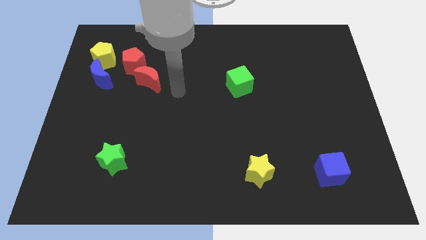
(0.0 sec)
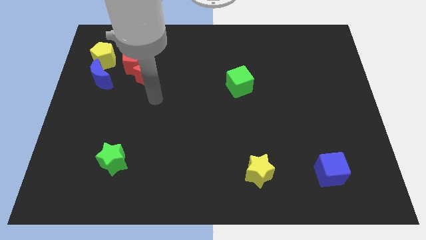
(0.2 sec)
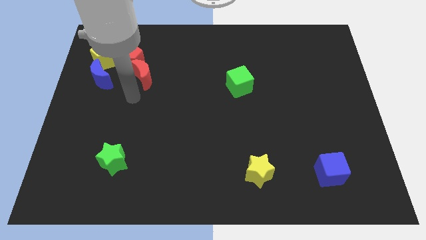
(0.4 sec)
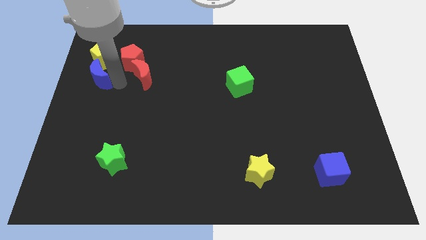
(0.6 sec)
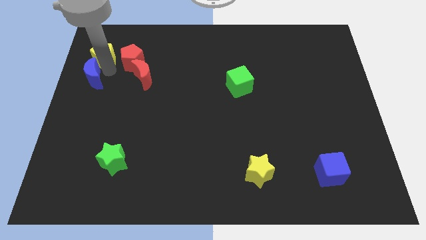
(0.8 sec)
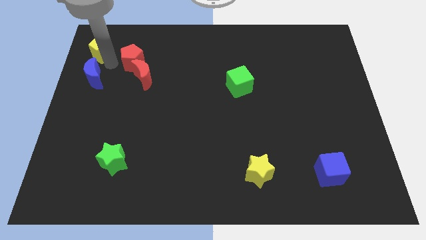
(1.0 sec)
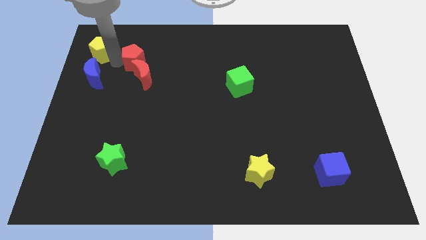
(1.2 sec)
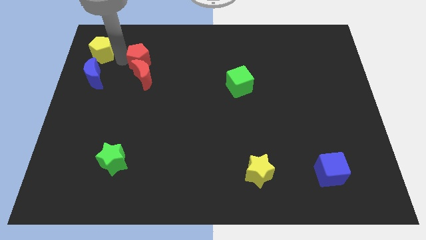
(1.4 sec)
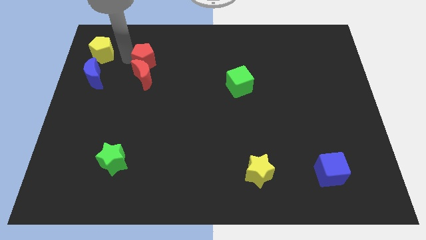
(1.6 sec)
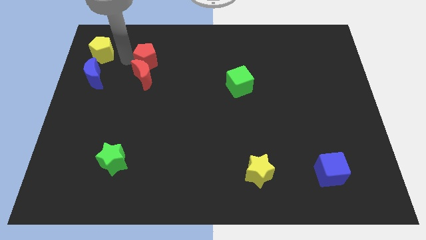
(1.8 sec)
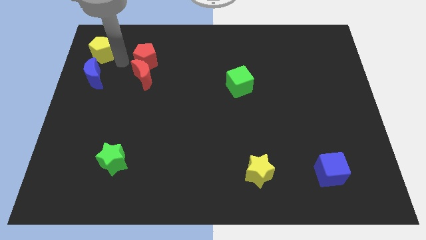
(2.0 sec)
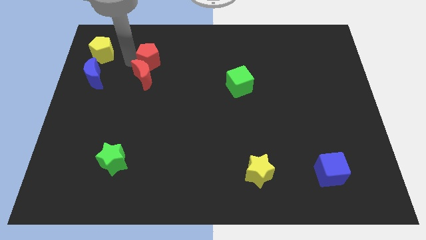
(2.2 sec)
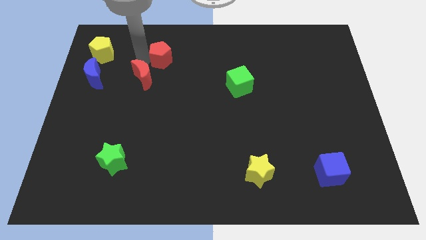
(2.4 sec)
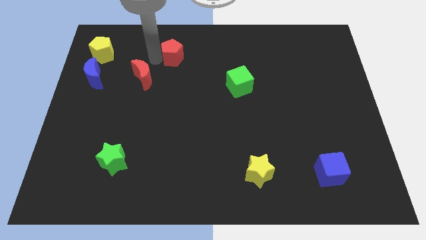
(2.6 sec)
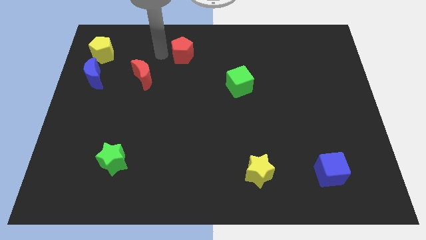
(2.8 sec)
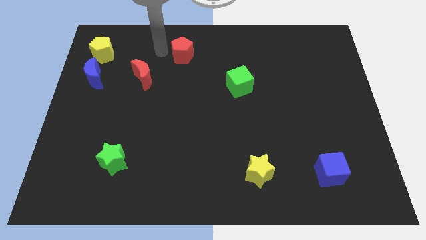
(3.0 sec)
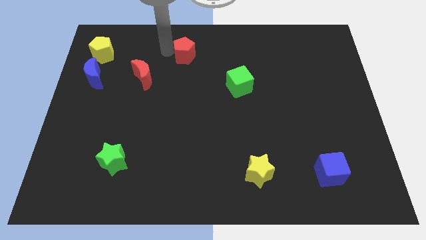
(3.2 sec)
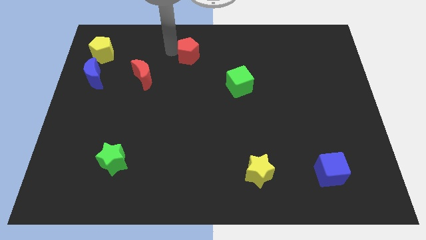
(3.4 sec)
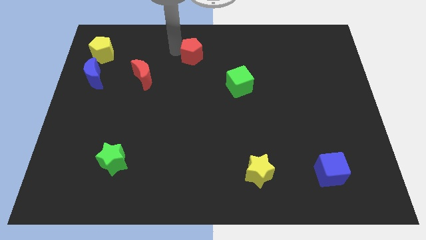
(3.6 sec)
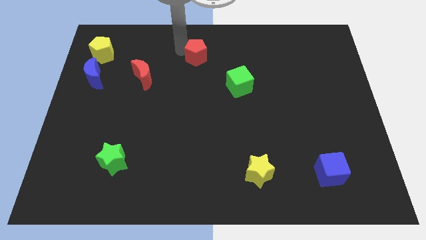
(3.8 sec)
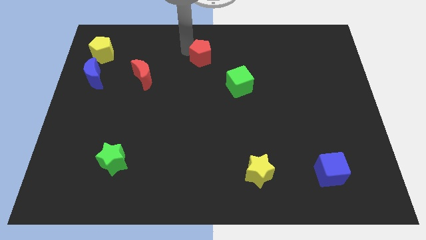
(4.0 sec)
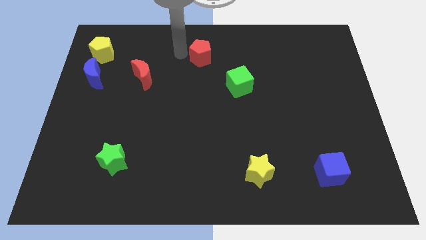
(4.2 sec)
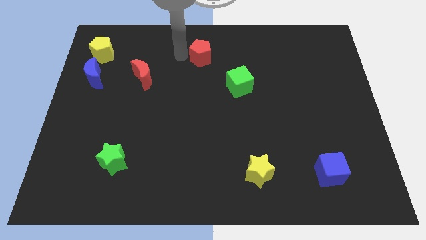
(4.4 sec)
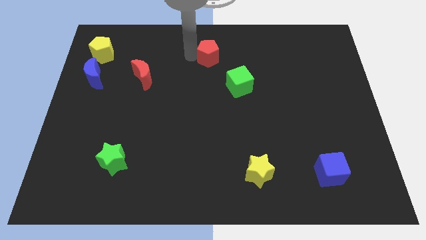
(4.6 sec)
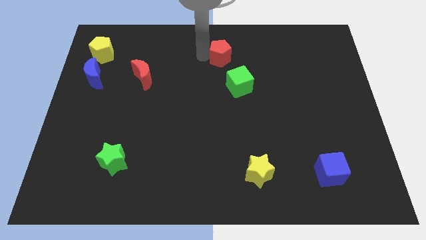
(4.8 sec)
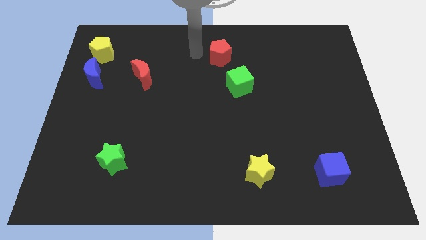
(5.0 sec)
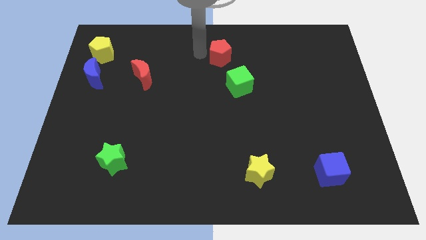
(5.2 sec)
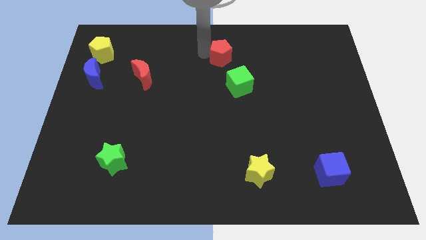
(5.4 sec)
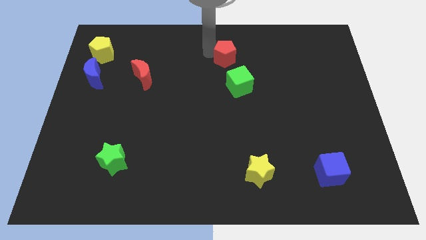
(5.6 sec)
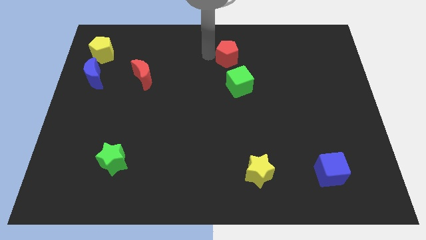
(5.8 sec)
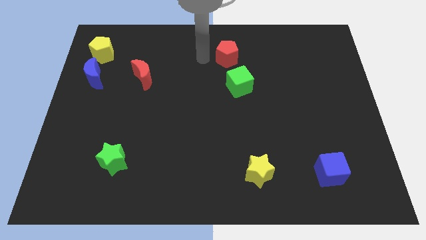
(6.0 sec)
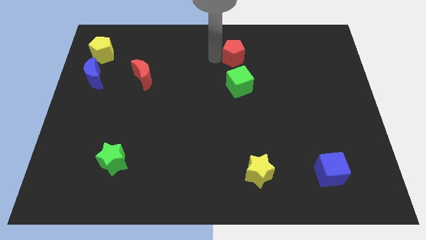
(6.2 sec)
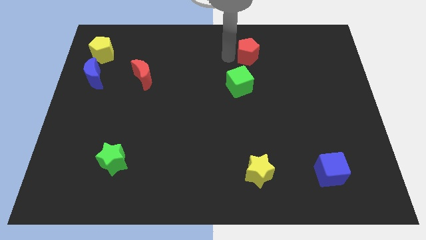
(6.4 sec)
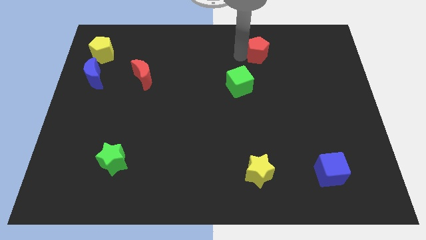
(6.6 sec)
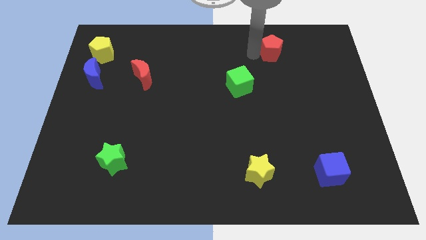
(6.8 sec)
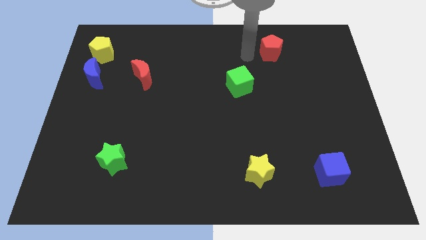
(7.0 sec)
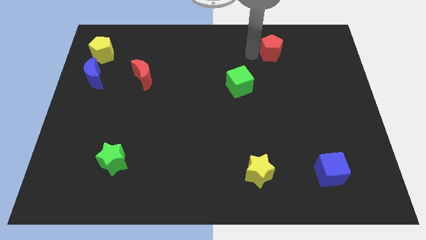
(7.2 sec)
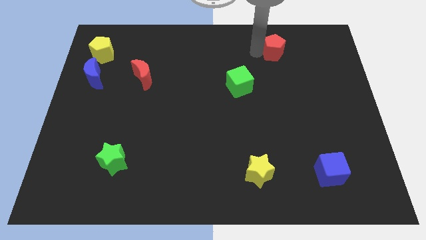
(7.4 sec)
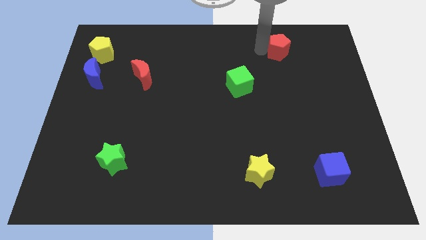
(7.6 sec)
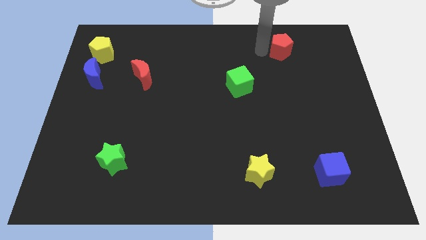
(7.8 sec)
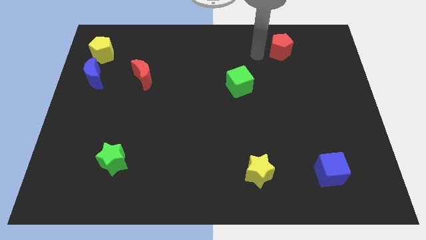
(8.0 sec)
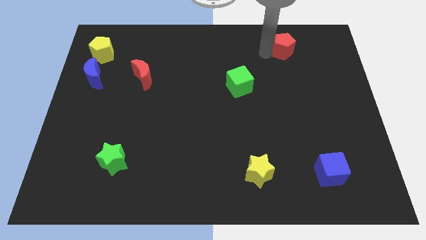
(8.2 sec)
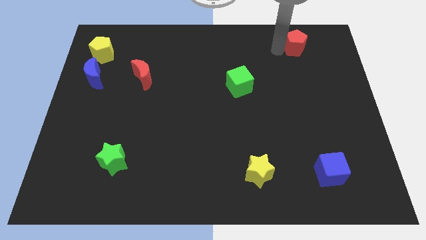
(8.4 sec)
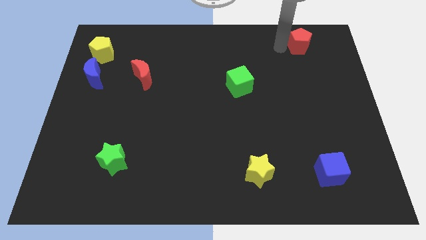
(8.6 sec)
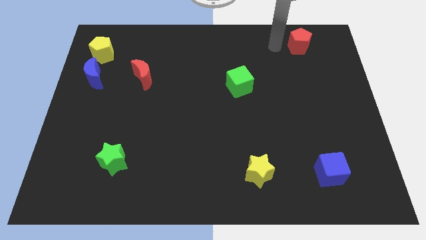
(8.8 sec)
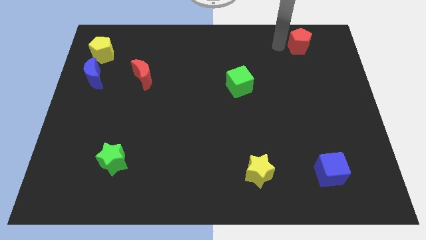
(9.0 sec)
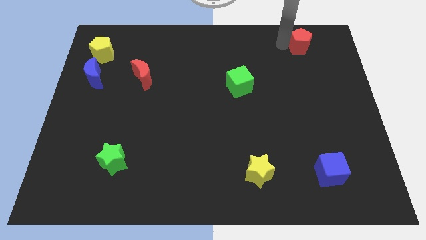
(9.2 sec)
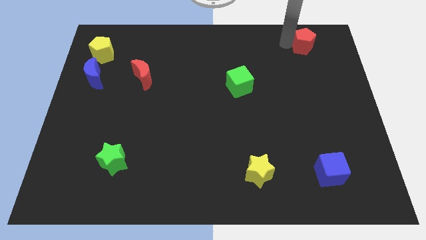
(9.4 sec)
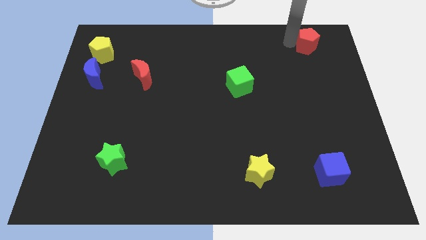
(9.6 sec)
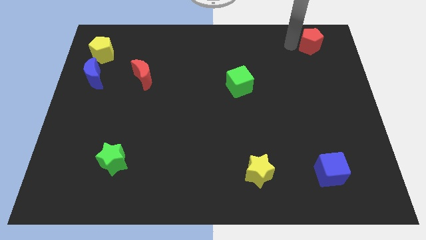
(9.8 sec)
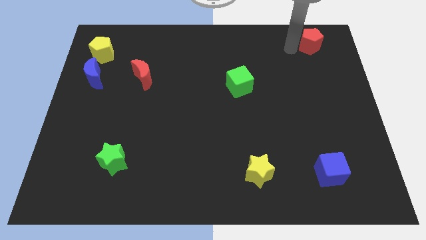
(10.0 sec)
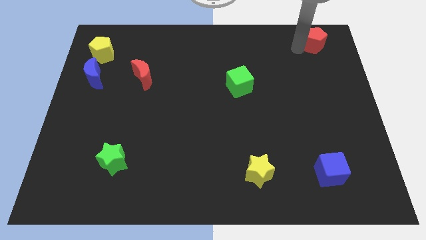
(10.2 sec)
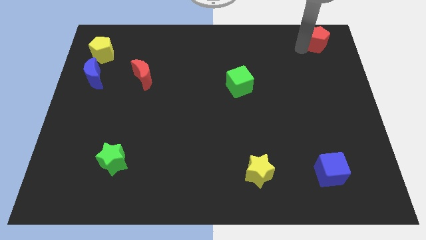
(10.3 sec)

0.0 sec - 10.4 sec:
move the red pentagon to the upper right corner

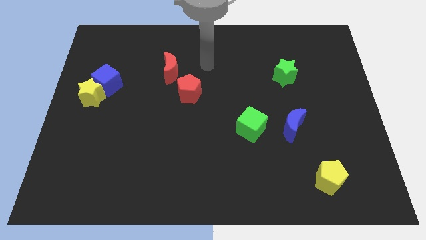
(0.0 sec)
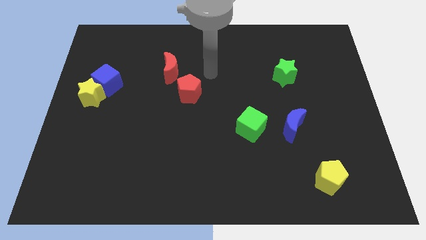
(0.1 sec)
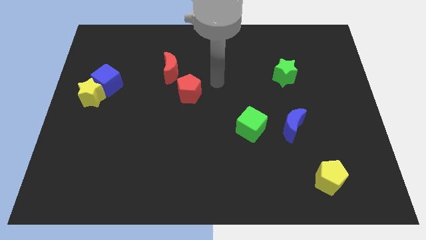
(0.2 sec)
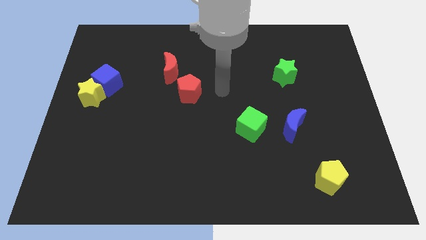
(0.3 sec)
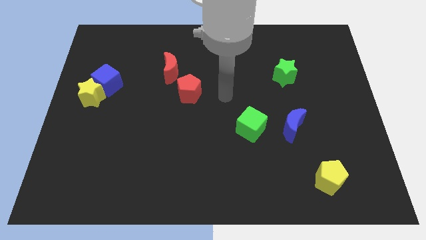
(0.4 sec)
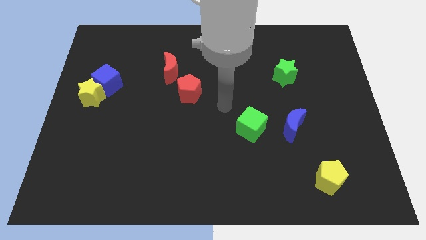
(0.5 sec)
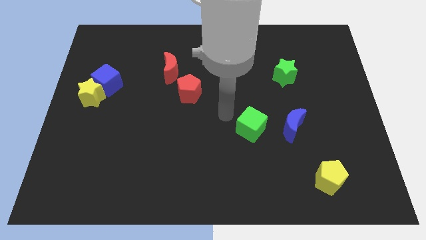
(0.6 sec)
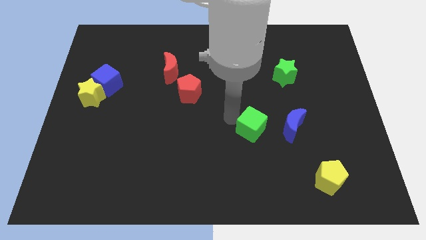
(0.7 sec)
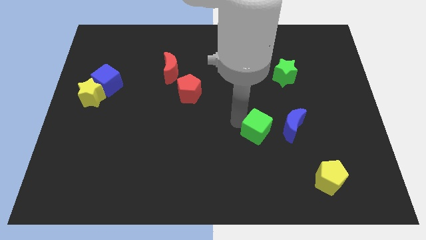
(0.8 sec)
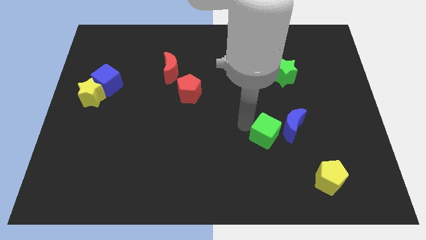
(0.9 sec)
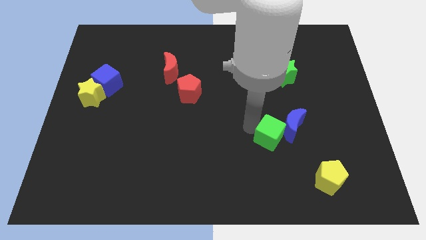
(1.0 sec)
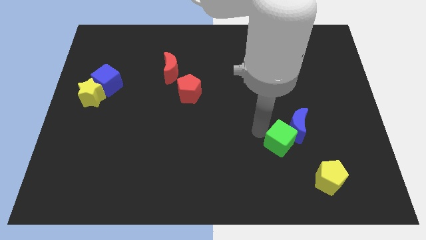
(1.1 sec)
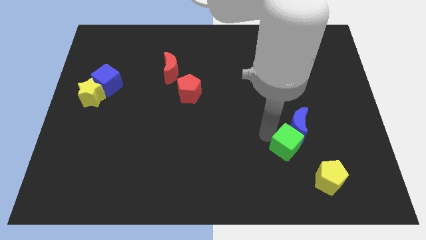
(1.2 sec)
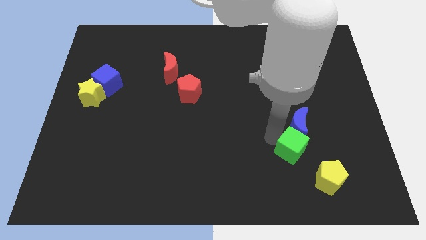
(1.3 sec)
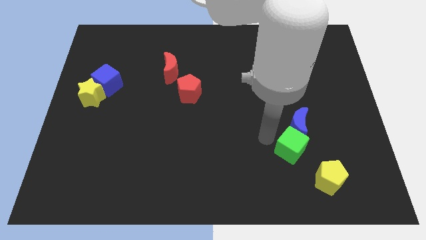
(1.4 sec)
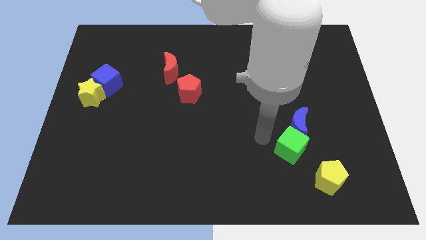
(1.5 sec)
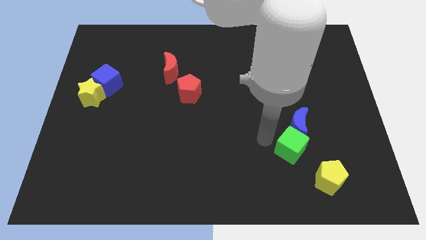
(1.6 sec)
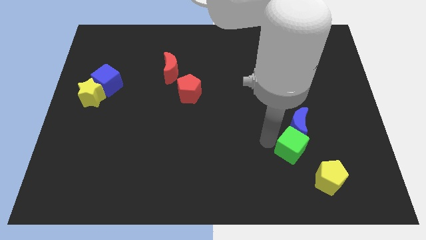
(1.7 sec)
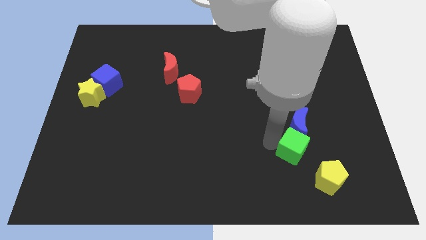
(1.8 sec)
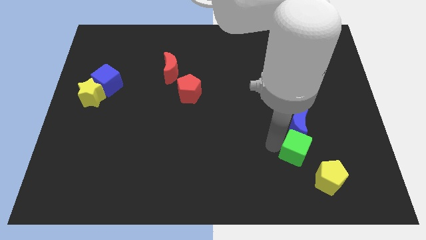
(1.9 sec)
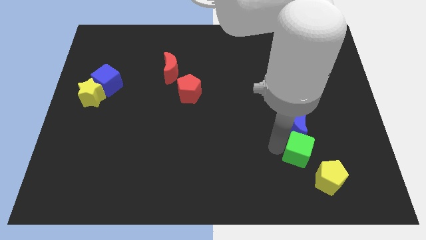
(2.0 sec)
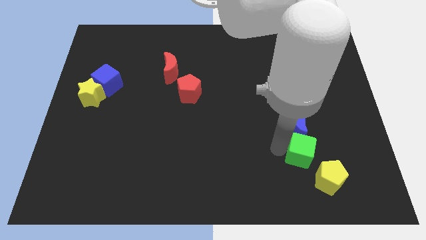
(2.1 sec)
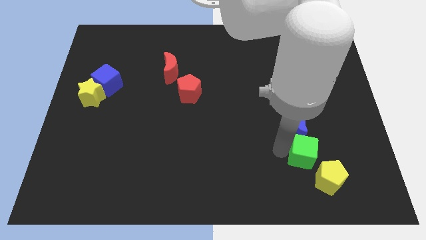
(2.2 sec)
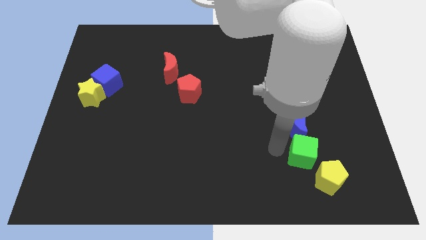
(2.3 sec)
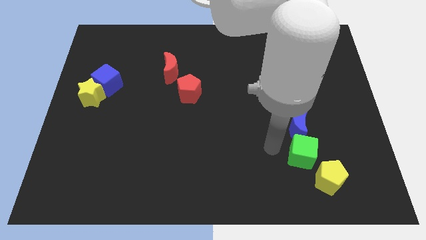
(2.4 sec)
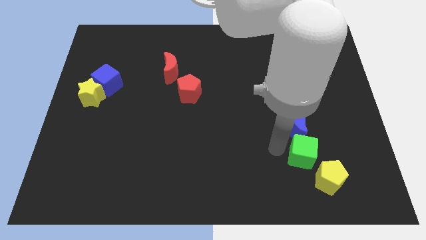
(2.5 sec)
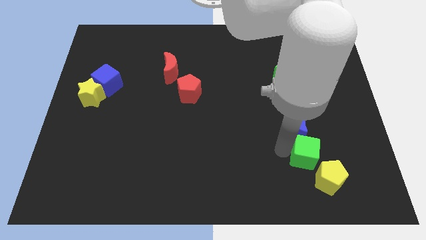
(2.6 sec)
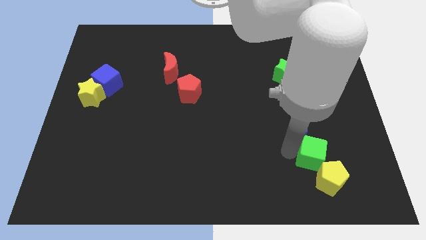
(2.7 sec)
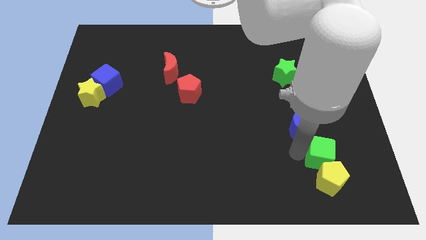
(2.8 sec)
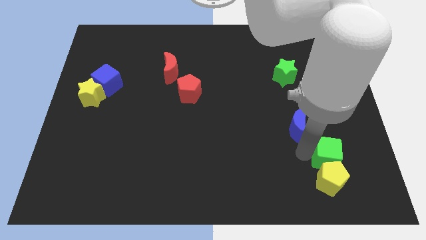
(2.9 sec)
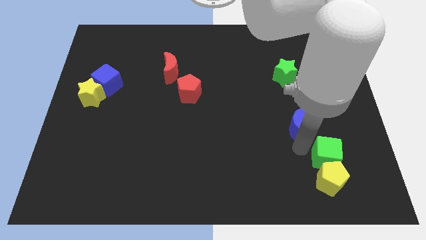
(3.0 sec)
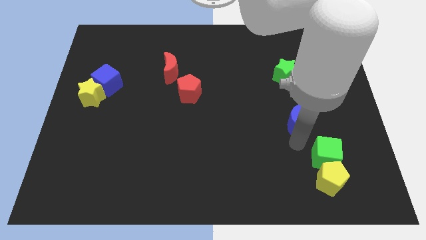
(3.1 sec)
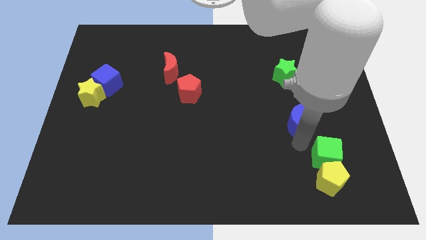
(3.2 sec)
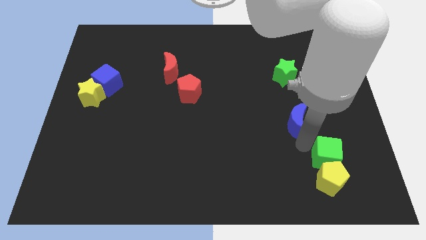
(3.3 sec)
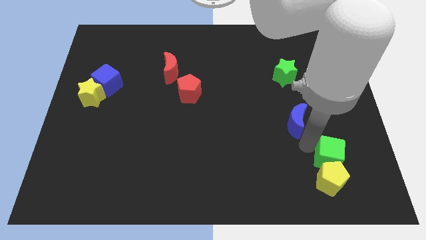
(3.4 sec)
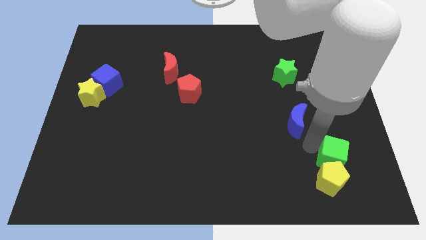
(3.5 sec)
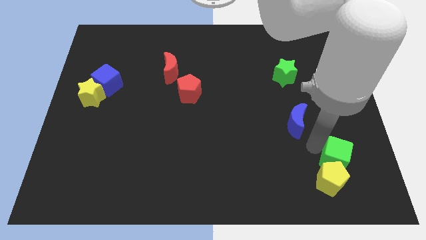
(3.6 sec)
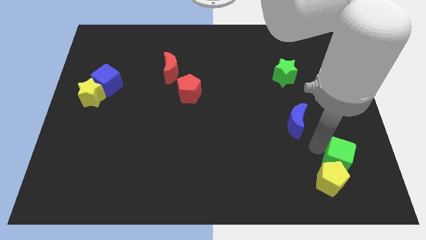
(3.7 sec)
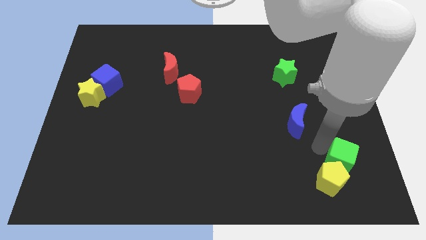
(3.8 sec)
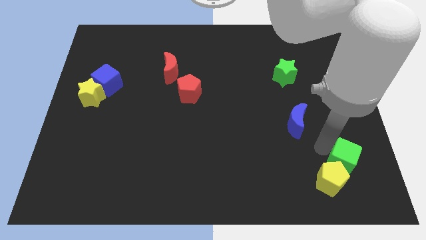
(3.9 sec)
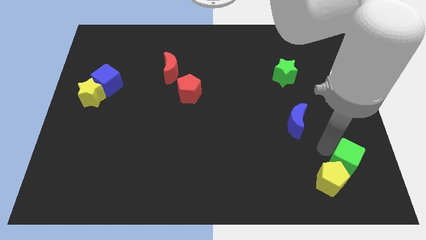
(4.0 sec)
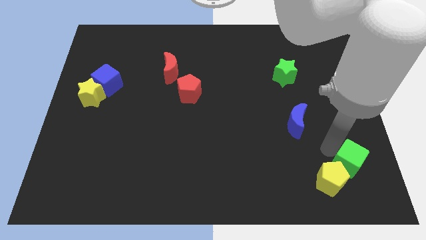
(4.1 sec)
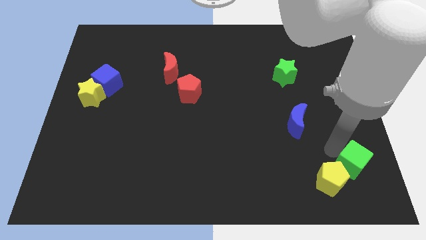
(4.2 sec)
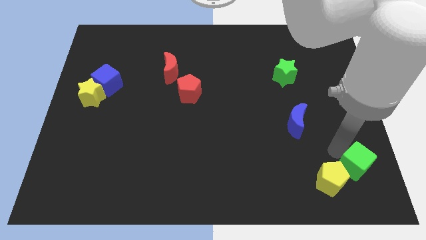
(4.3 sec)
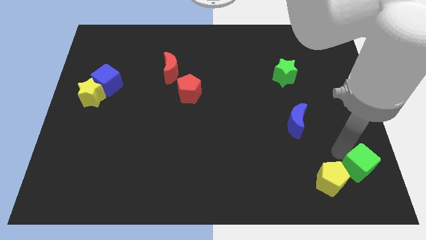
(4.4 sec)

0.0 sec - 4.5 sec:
move the green cube to the bottom right of the board
